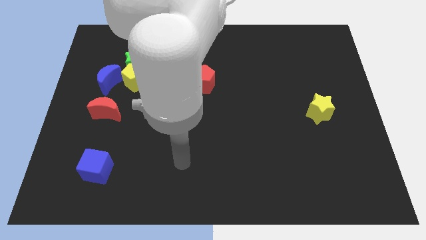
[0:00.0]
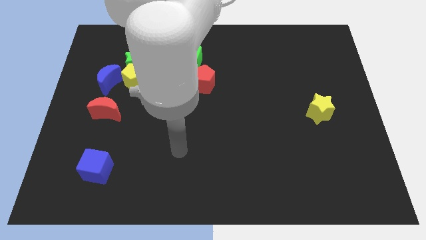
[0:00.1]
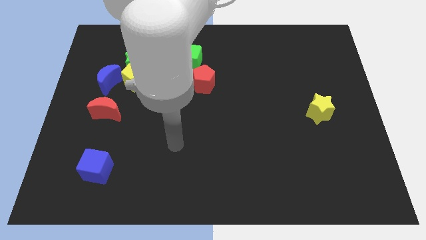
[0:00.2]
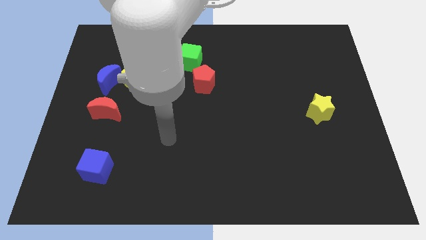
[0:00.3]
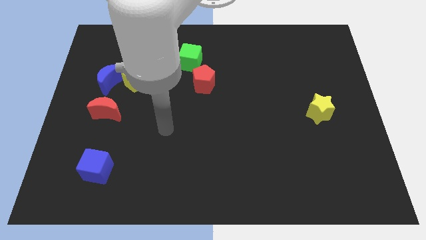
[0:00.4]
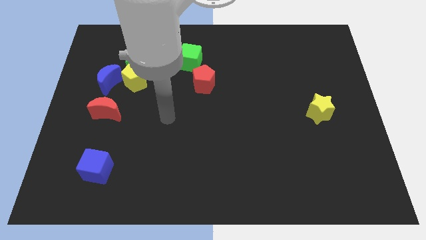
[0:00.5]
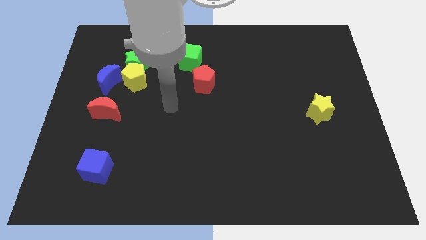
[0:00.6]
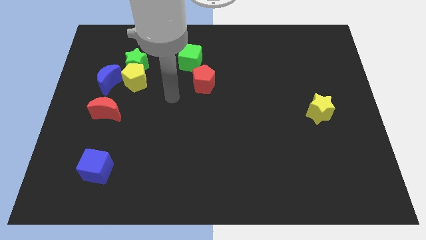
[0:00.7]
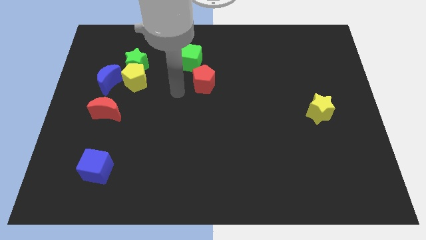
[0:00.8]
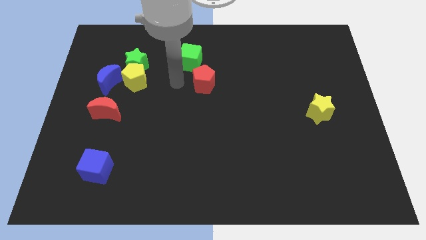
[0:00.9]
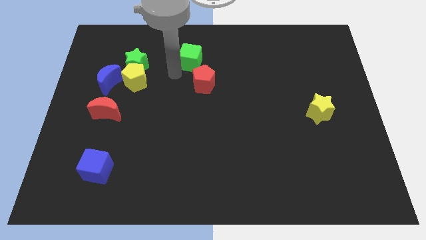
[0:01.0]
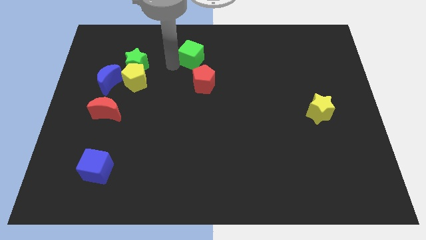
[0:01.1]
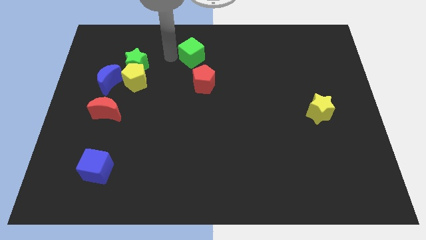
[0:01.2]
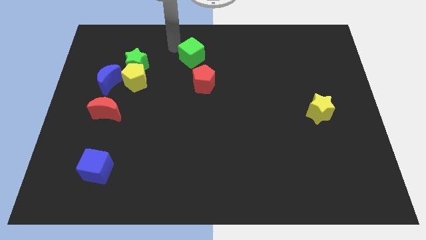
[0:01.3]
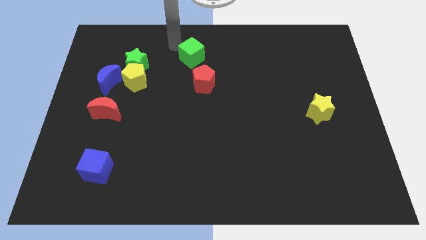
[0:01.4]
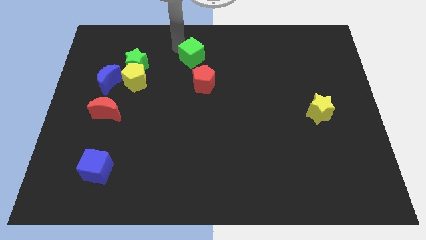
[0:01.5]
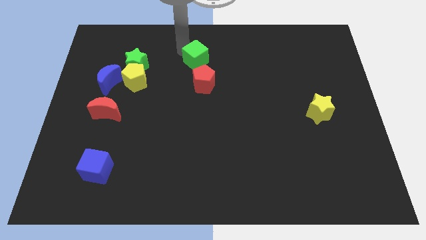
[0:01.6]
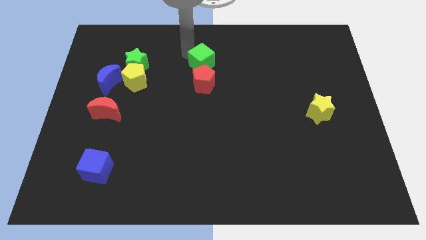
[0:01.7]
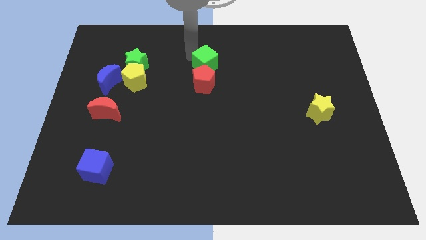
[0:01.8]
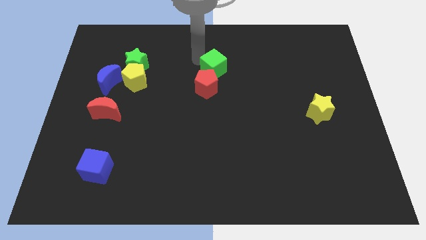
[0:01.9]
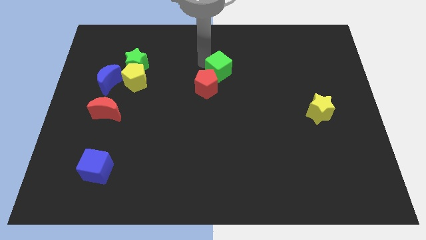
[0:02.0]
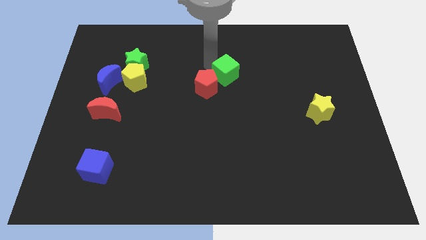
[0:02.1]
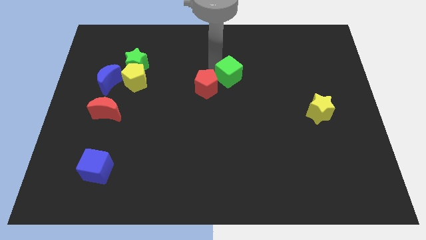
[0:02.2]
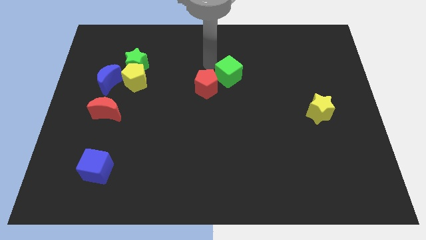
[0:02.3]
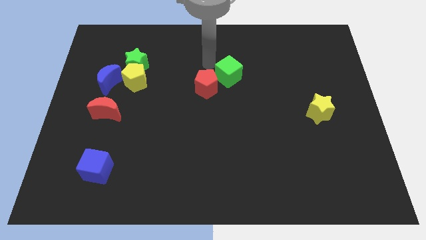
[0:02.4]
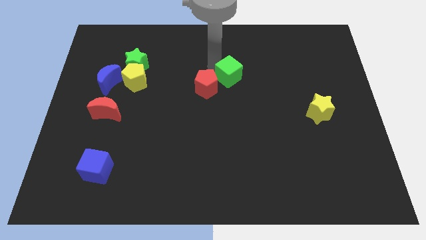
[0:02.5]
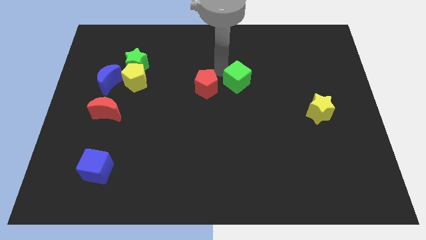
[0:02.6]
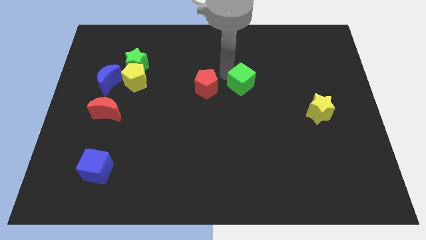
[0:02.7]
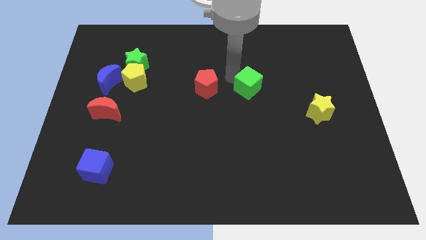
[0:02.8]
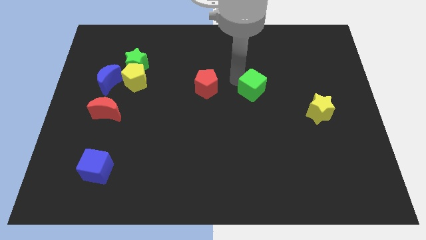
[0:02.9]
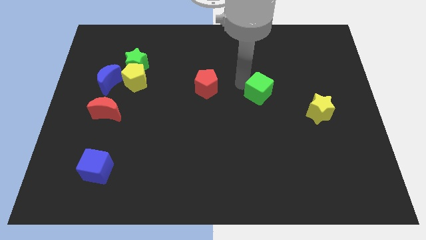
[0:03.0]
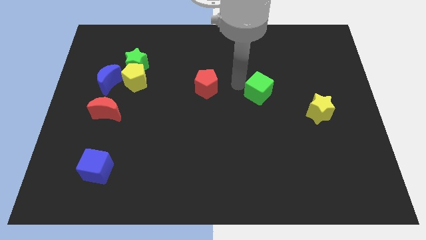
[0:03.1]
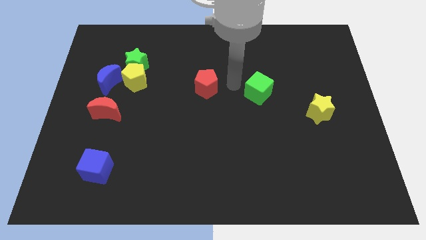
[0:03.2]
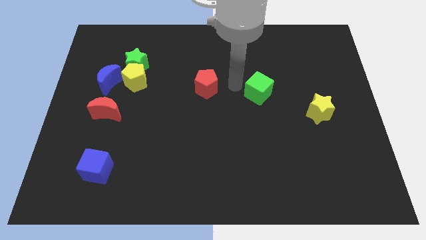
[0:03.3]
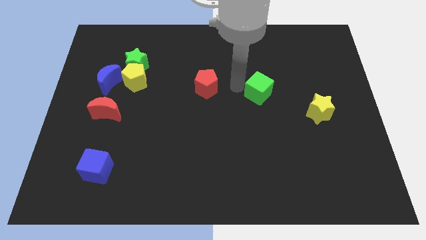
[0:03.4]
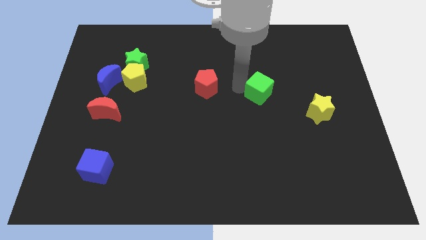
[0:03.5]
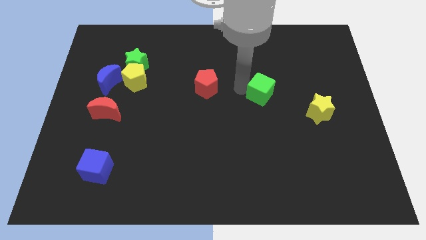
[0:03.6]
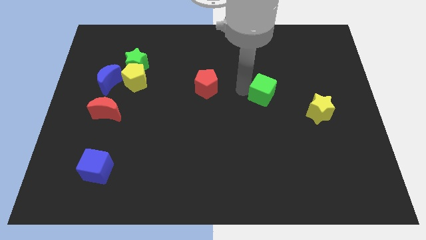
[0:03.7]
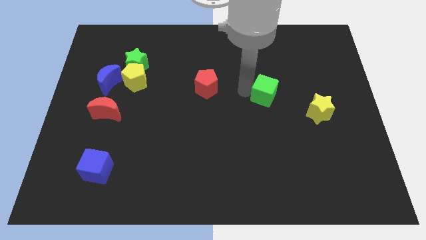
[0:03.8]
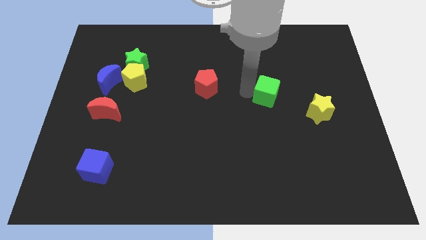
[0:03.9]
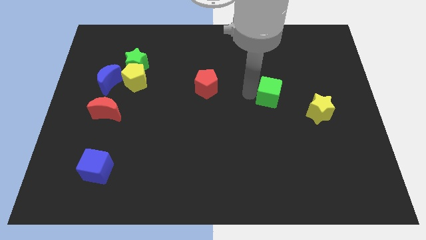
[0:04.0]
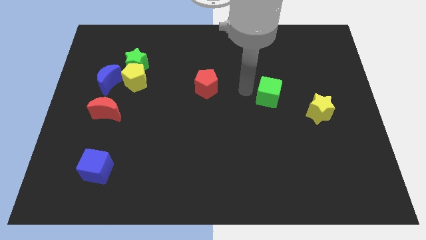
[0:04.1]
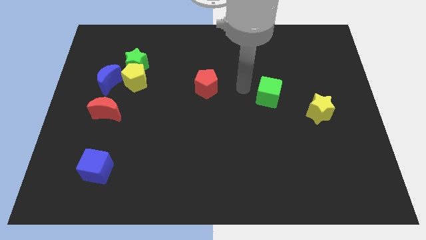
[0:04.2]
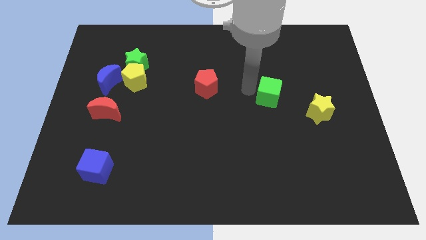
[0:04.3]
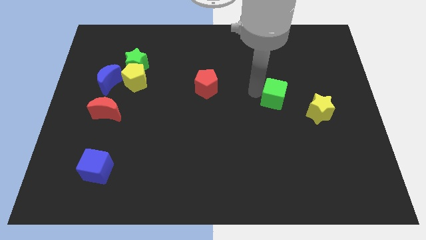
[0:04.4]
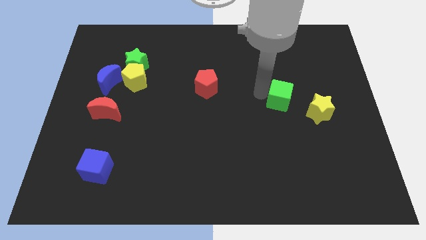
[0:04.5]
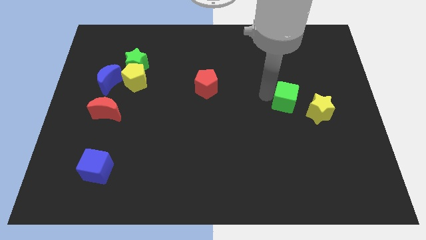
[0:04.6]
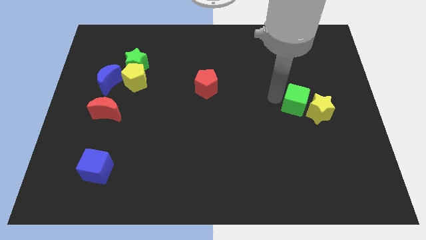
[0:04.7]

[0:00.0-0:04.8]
slide the green cube next to the yellow star

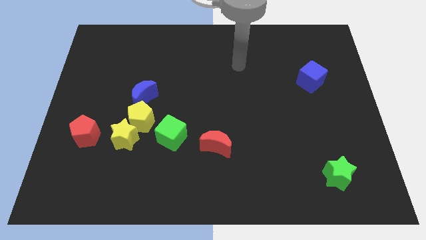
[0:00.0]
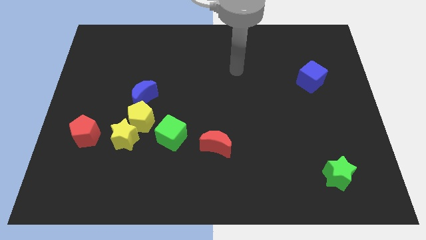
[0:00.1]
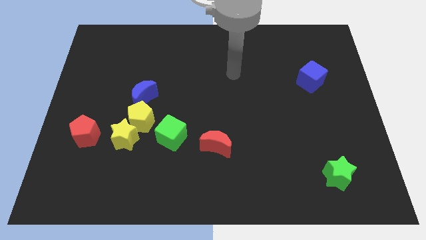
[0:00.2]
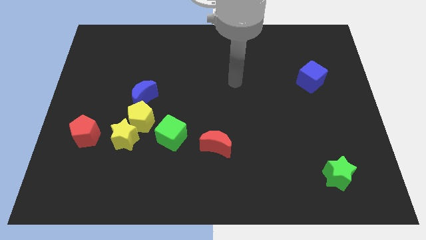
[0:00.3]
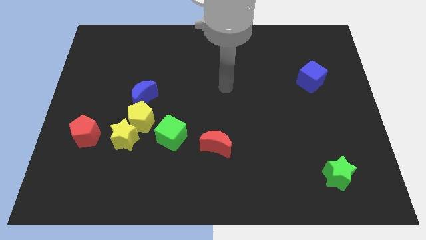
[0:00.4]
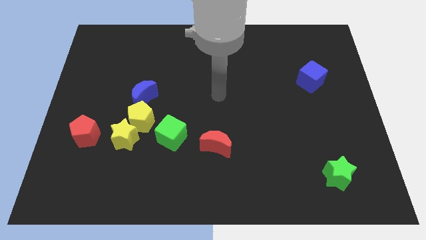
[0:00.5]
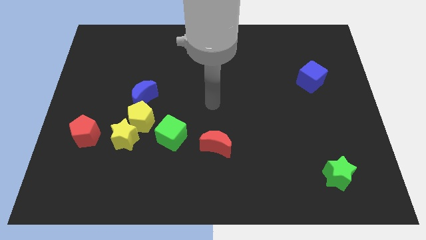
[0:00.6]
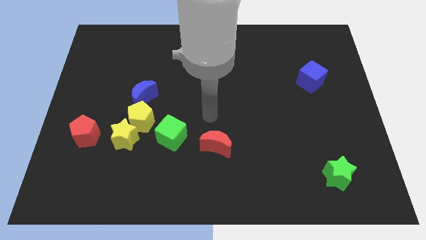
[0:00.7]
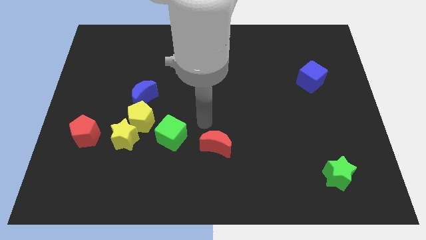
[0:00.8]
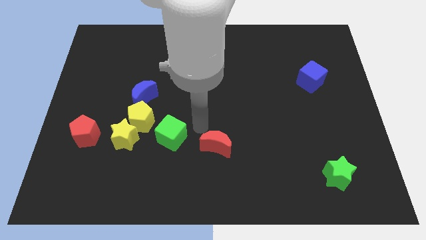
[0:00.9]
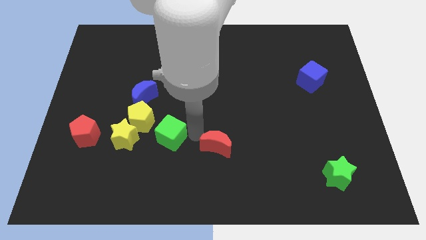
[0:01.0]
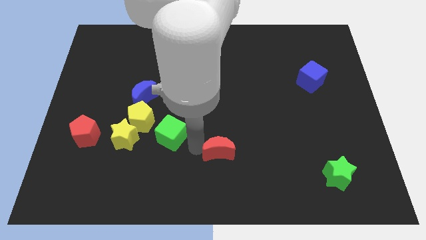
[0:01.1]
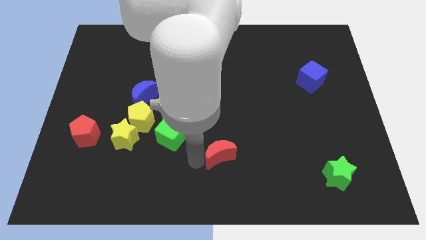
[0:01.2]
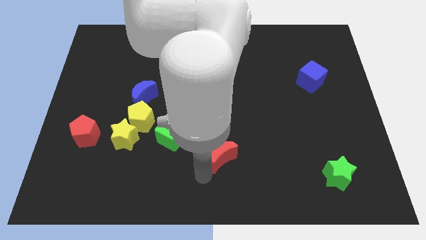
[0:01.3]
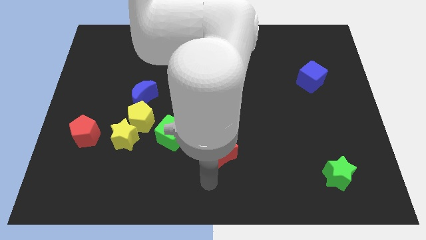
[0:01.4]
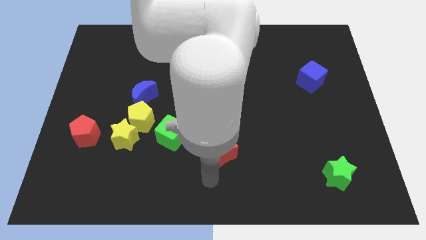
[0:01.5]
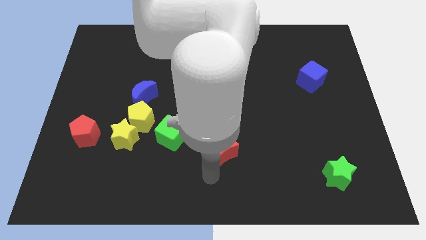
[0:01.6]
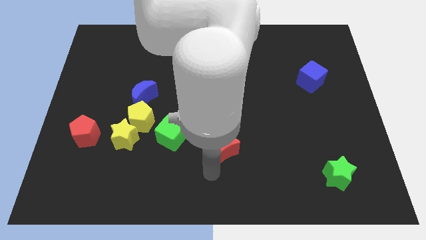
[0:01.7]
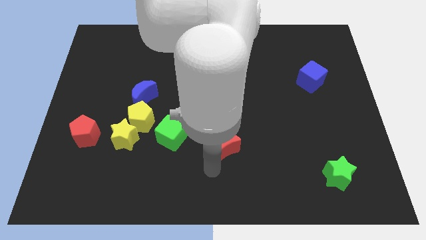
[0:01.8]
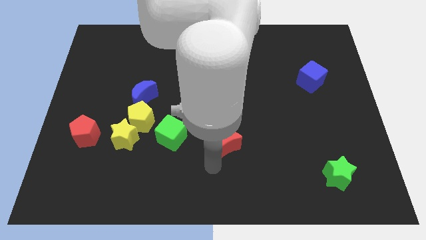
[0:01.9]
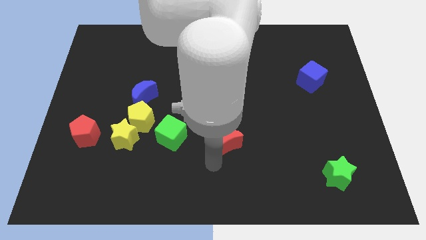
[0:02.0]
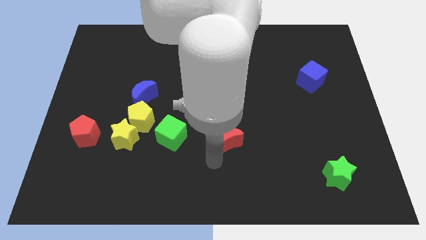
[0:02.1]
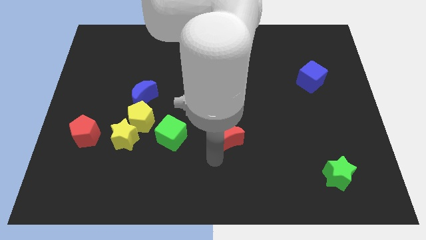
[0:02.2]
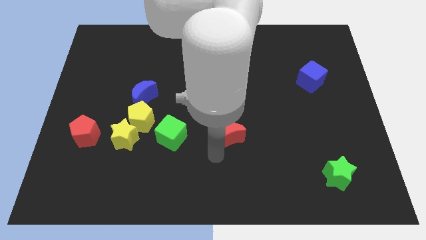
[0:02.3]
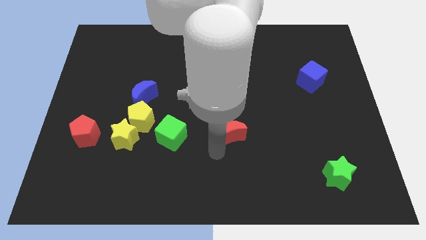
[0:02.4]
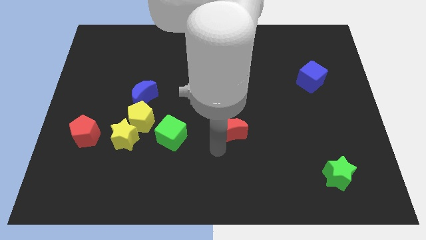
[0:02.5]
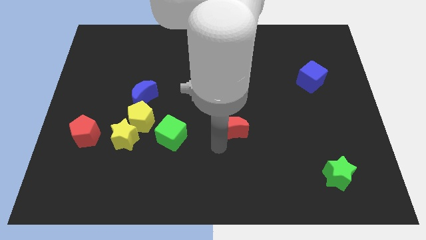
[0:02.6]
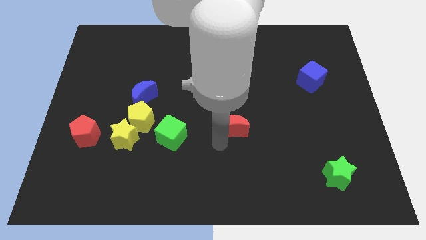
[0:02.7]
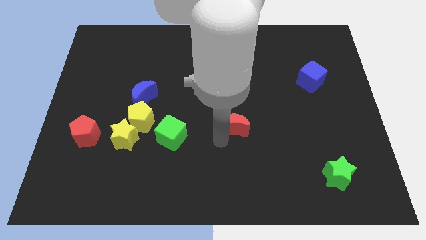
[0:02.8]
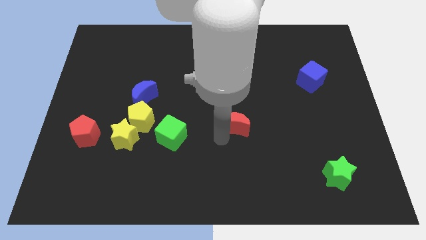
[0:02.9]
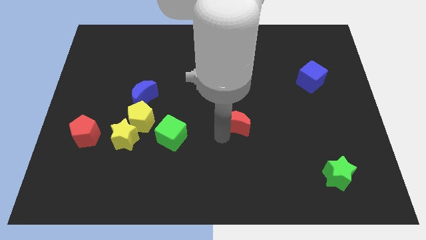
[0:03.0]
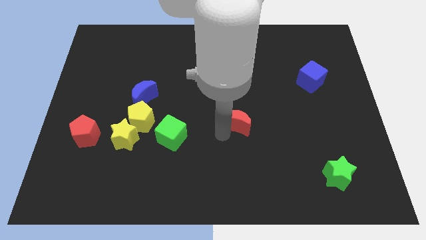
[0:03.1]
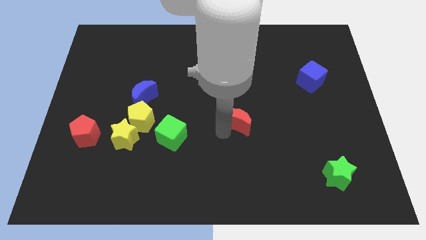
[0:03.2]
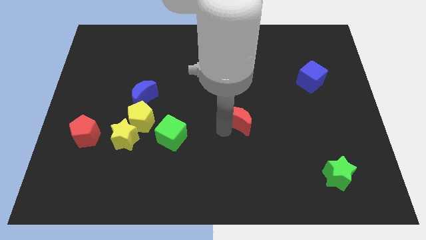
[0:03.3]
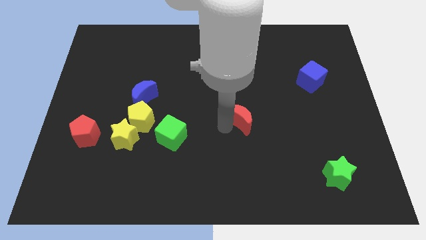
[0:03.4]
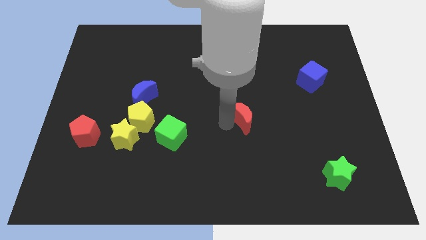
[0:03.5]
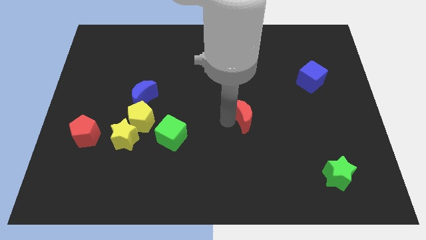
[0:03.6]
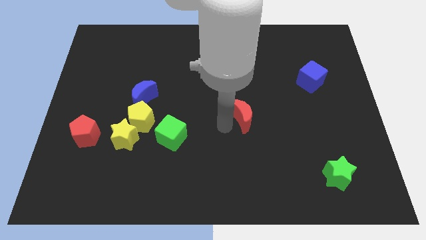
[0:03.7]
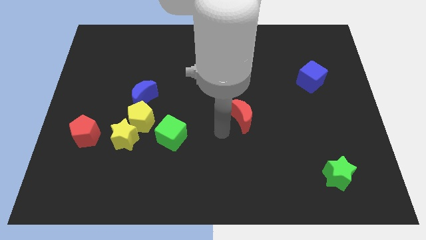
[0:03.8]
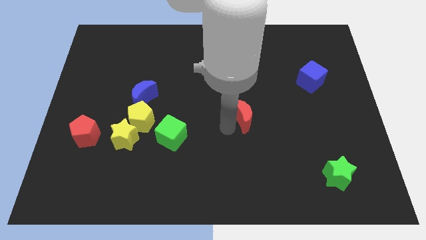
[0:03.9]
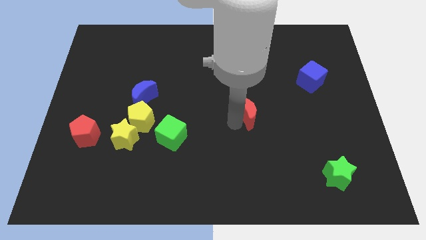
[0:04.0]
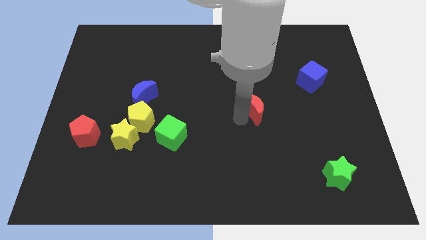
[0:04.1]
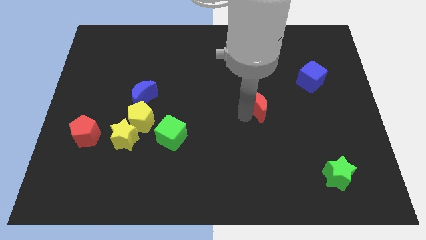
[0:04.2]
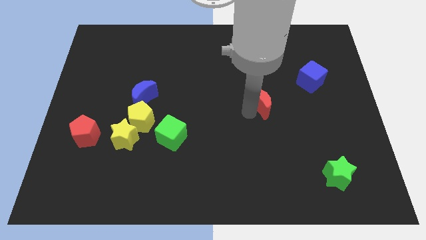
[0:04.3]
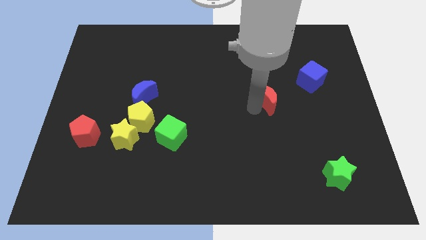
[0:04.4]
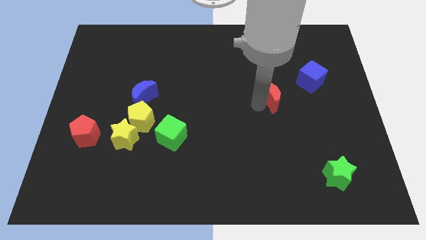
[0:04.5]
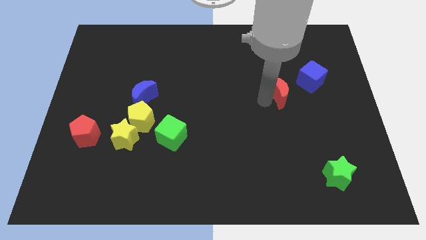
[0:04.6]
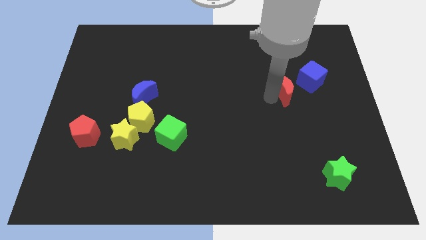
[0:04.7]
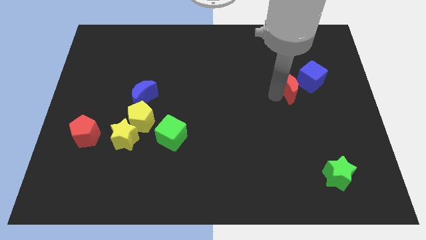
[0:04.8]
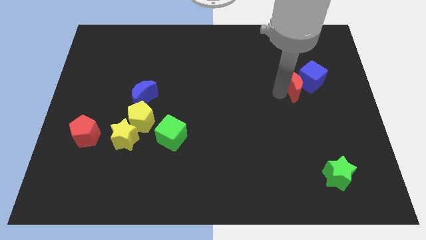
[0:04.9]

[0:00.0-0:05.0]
push the red moon close to the blue cube
